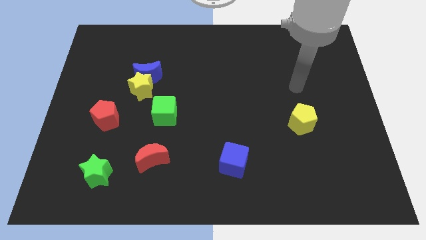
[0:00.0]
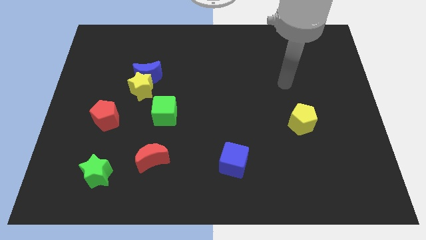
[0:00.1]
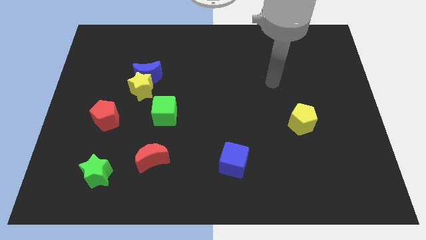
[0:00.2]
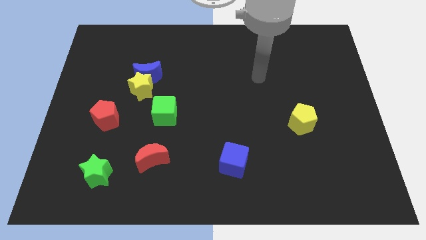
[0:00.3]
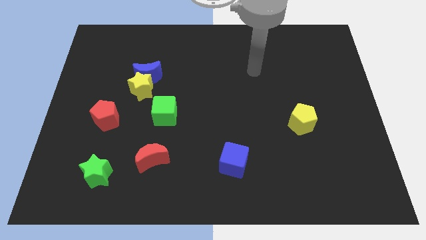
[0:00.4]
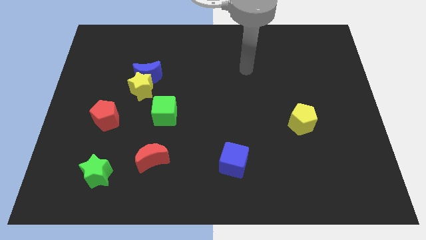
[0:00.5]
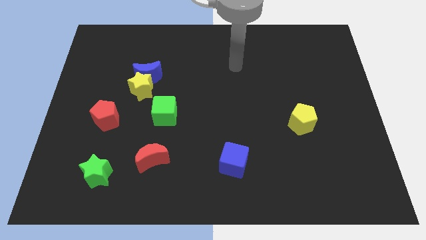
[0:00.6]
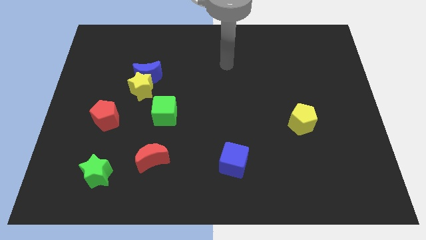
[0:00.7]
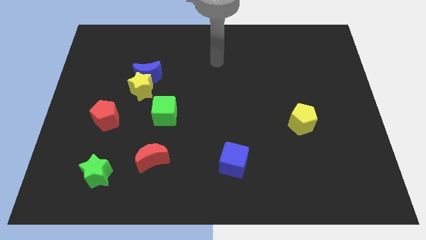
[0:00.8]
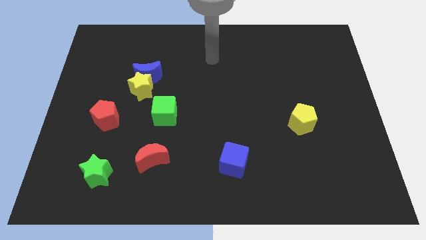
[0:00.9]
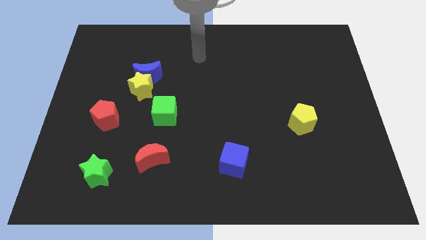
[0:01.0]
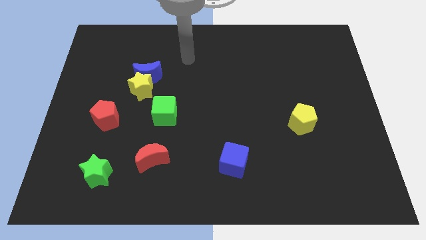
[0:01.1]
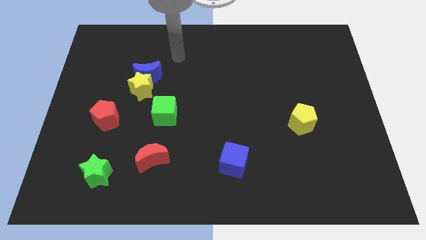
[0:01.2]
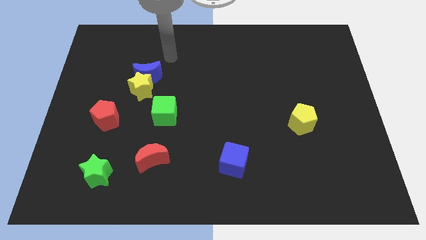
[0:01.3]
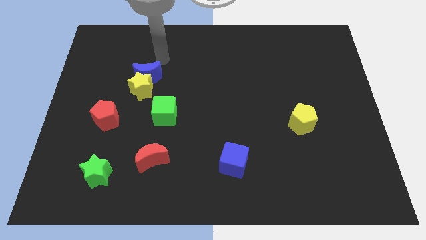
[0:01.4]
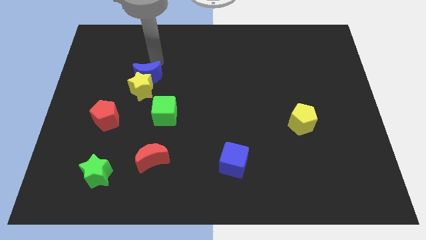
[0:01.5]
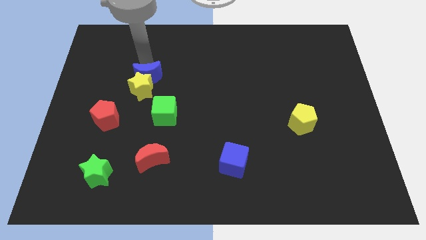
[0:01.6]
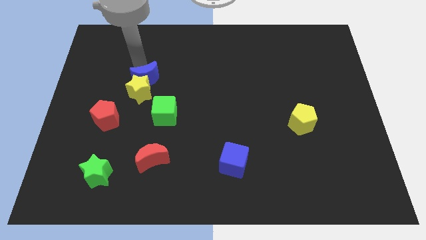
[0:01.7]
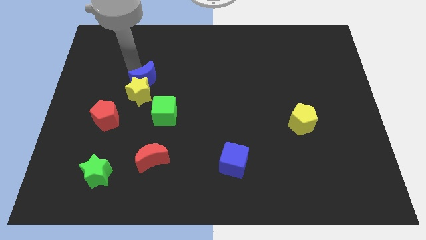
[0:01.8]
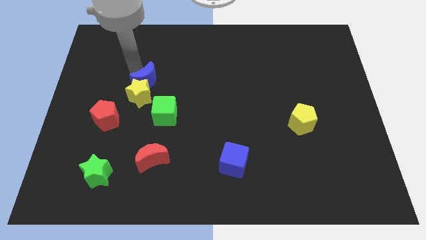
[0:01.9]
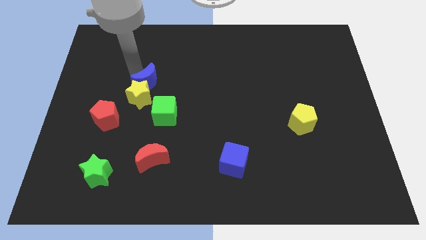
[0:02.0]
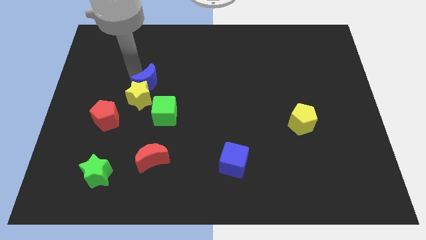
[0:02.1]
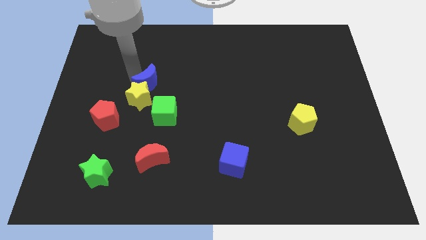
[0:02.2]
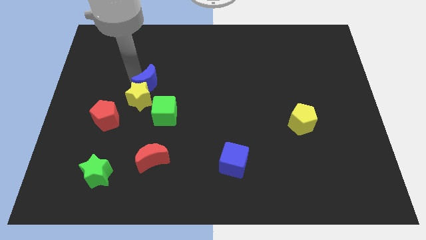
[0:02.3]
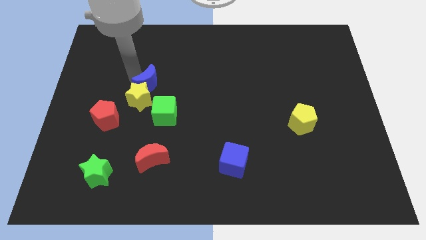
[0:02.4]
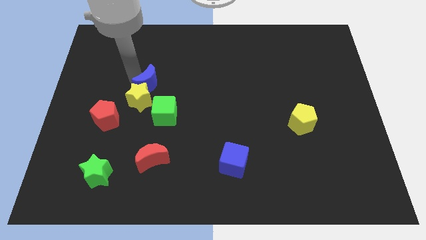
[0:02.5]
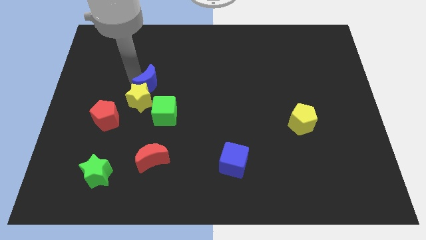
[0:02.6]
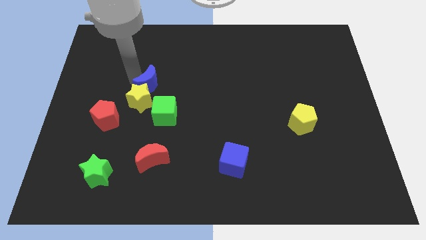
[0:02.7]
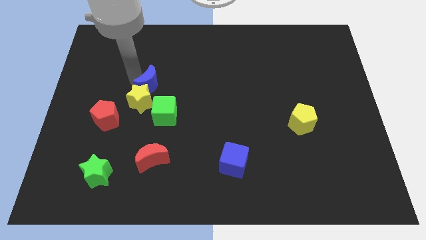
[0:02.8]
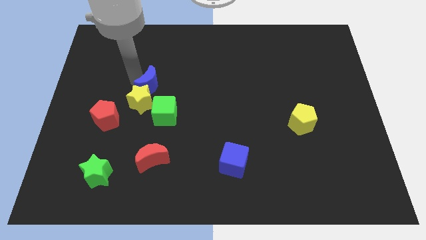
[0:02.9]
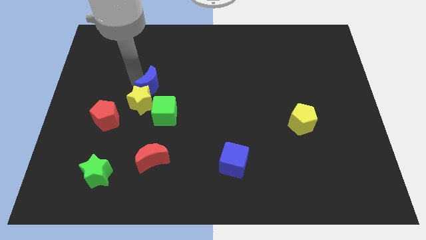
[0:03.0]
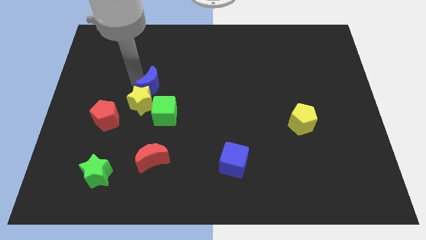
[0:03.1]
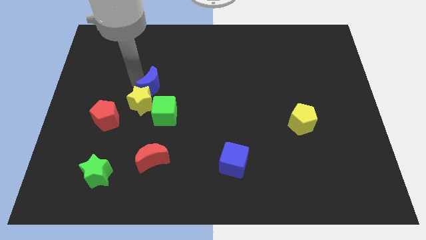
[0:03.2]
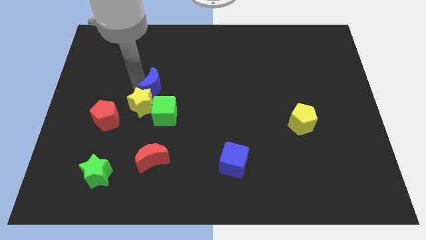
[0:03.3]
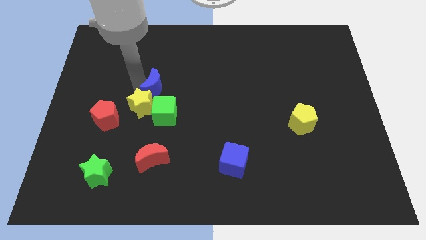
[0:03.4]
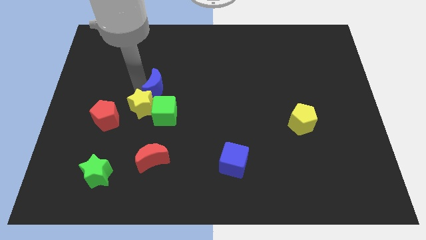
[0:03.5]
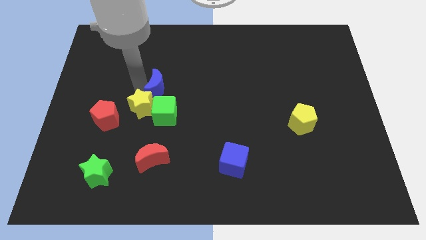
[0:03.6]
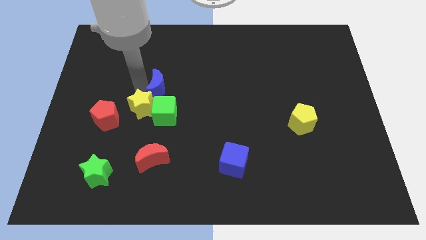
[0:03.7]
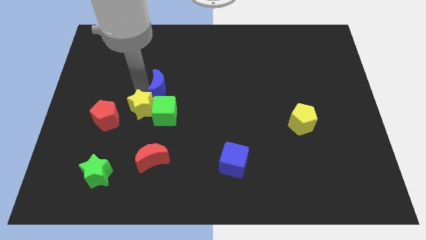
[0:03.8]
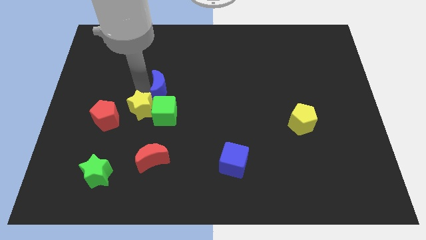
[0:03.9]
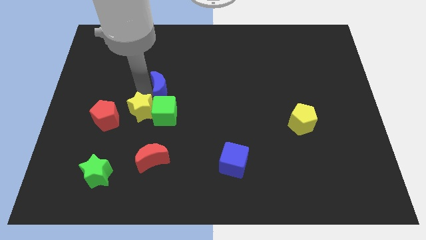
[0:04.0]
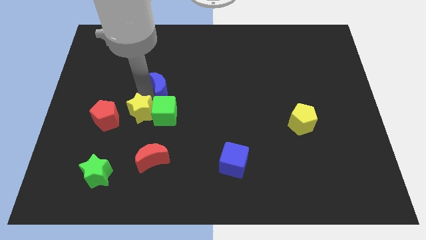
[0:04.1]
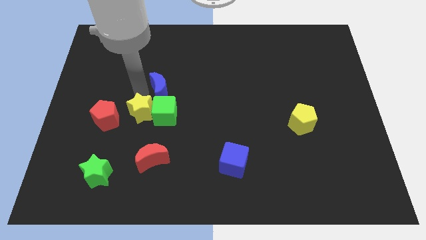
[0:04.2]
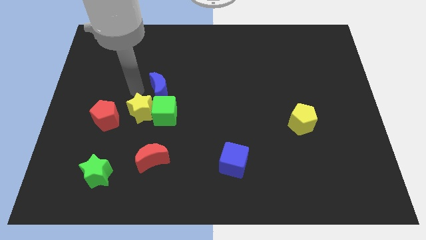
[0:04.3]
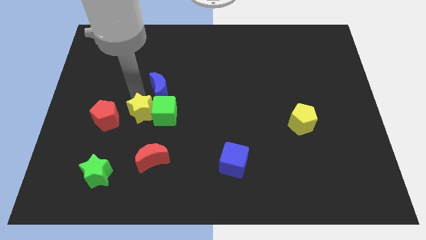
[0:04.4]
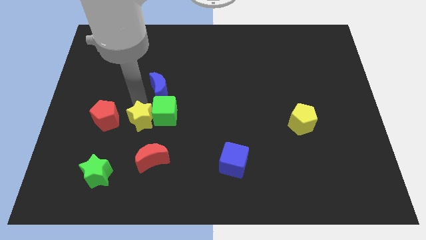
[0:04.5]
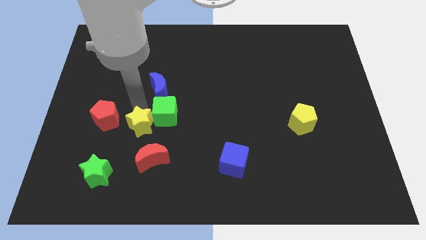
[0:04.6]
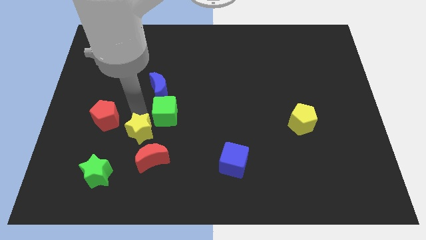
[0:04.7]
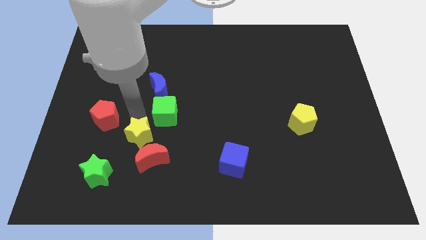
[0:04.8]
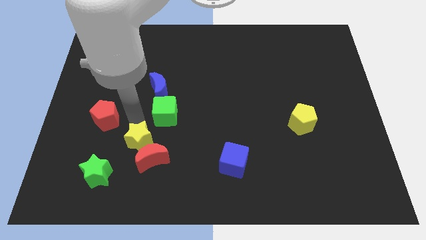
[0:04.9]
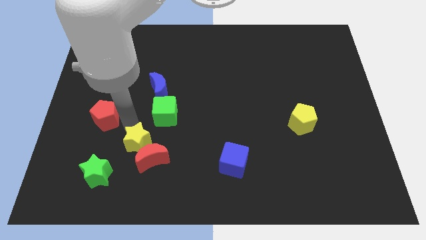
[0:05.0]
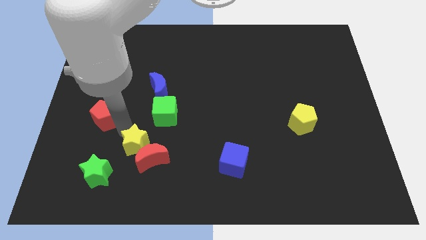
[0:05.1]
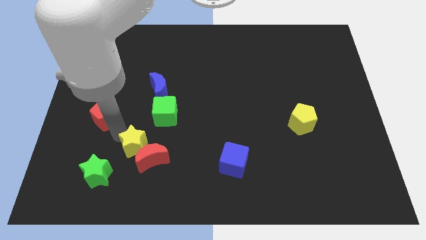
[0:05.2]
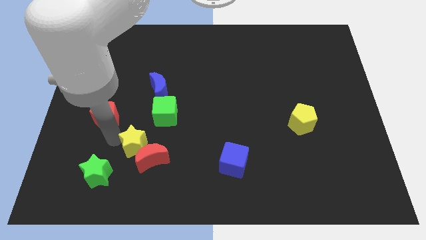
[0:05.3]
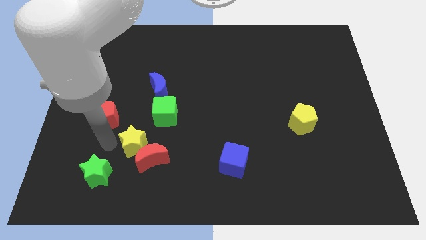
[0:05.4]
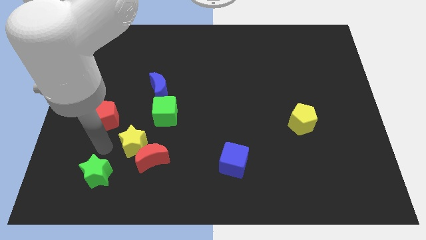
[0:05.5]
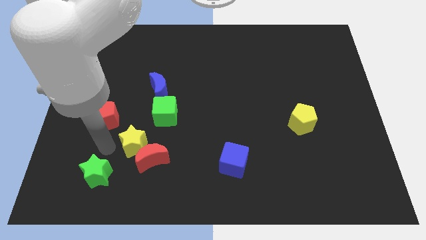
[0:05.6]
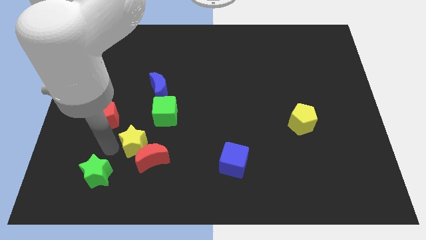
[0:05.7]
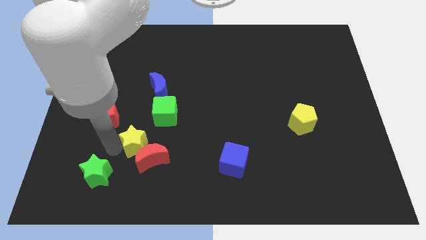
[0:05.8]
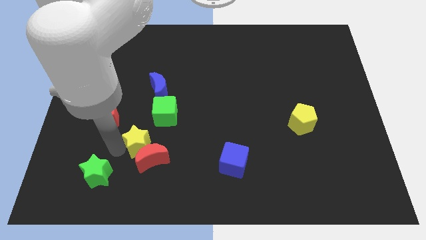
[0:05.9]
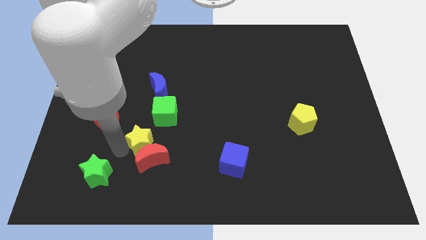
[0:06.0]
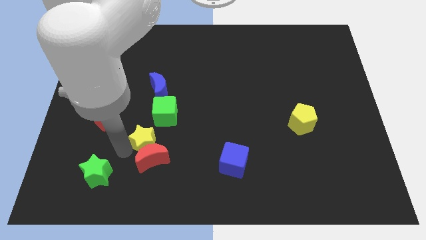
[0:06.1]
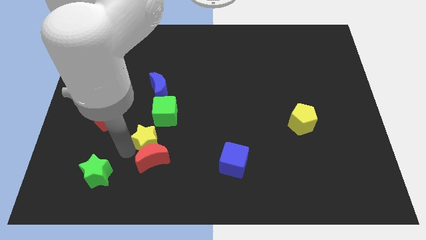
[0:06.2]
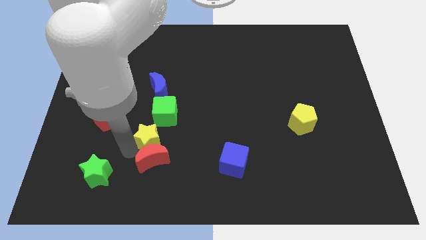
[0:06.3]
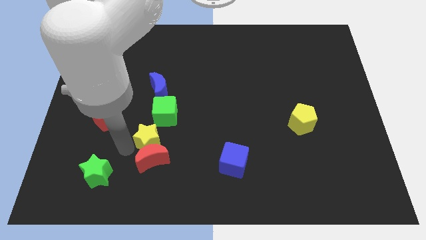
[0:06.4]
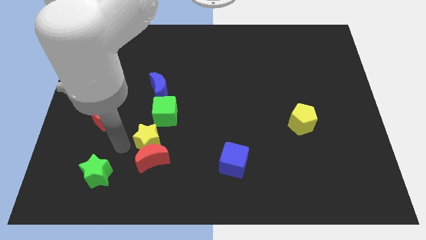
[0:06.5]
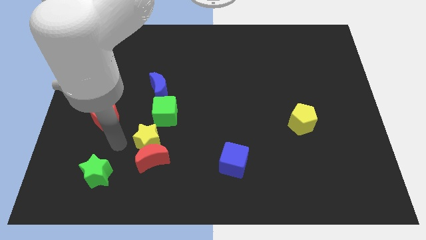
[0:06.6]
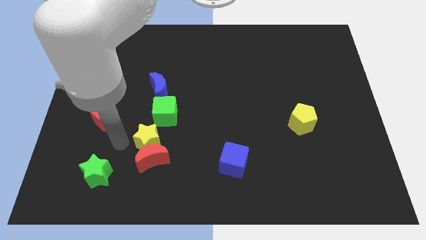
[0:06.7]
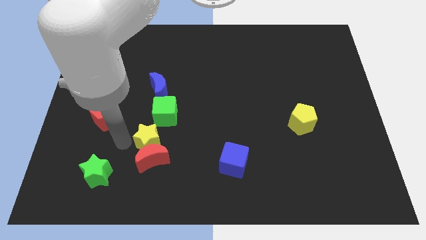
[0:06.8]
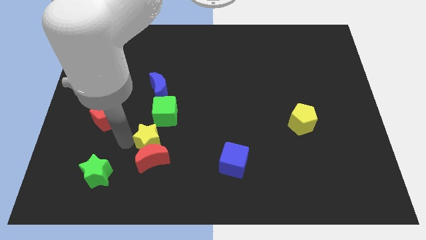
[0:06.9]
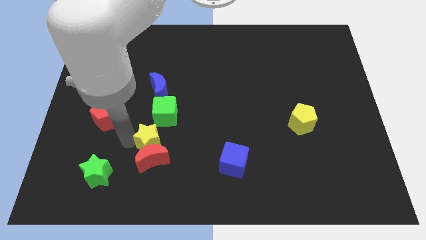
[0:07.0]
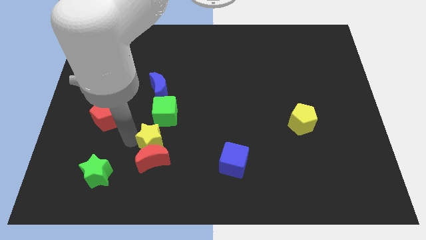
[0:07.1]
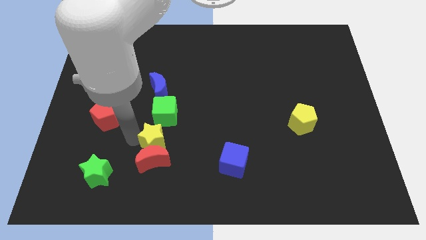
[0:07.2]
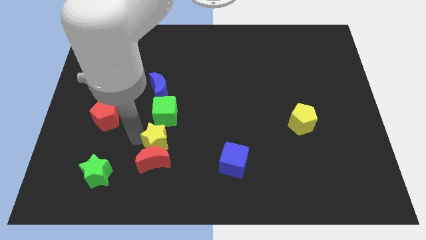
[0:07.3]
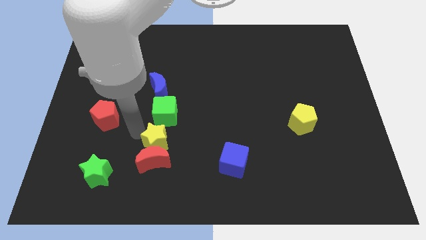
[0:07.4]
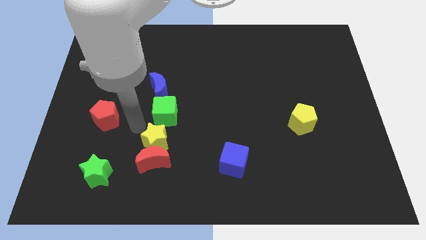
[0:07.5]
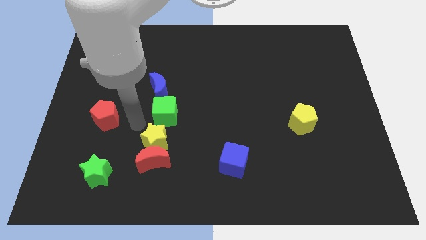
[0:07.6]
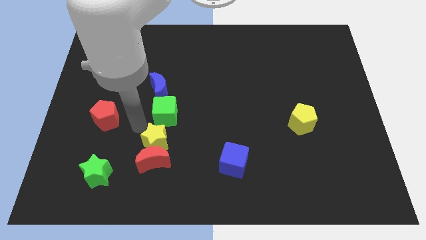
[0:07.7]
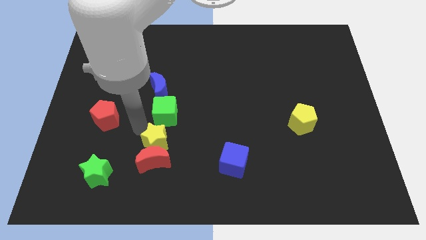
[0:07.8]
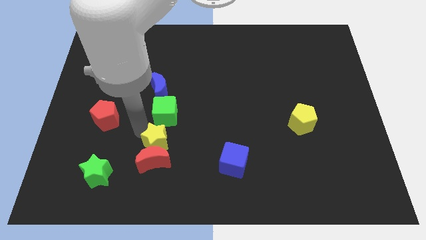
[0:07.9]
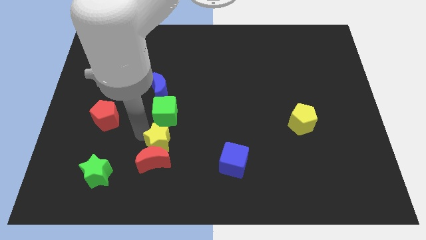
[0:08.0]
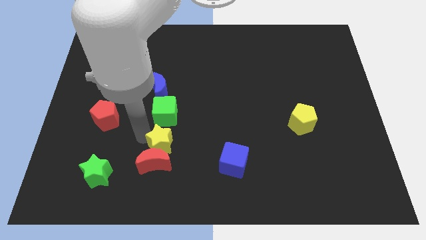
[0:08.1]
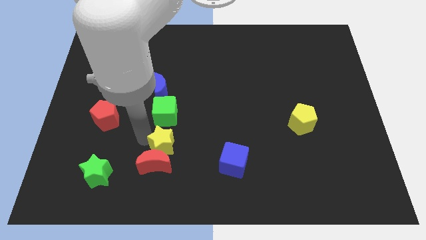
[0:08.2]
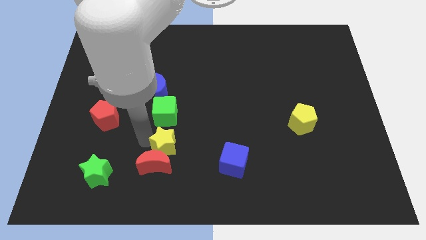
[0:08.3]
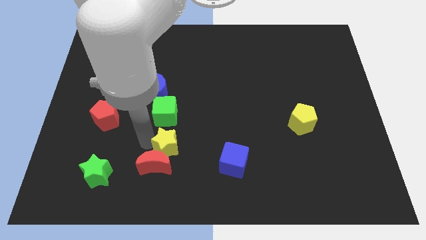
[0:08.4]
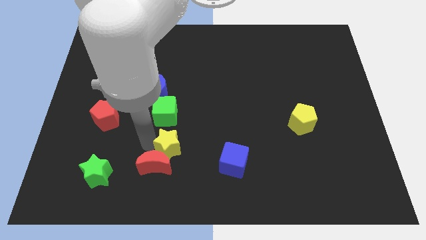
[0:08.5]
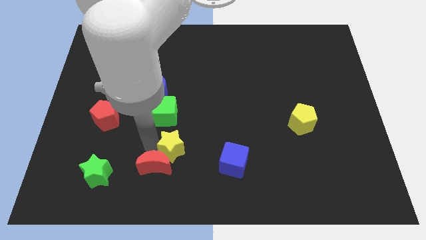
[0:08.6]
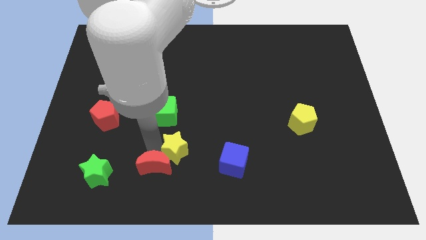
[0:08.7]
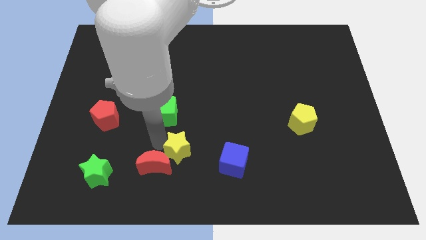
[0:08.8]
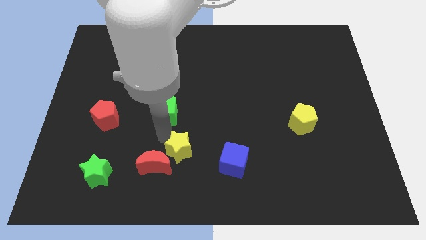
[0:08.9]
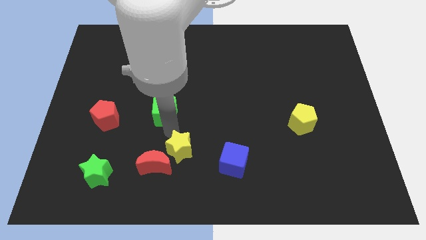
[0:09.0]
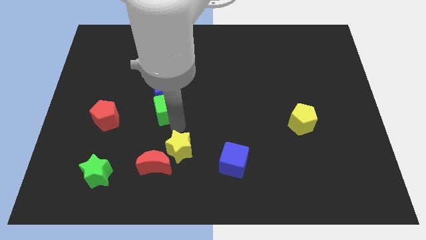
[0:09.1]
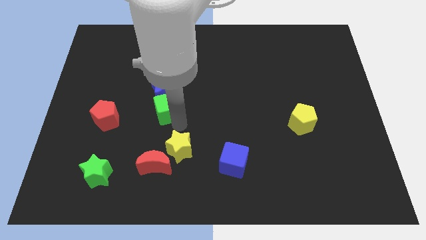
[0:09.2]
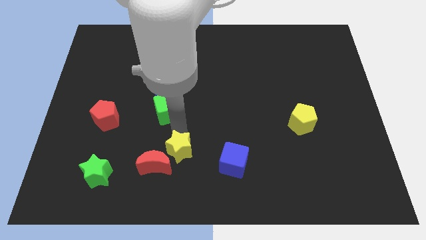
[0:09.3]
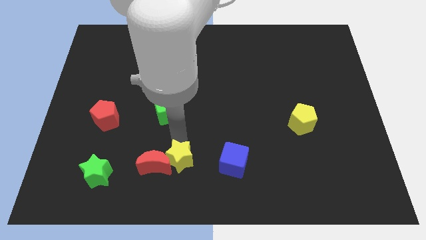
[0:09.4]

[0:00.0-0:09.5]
push the yellow star to the bottom right of the red moon
